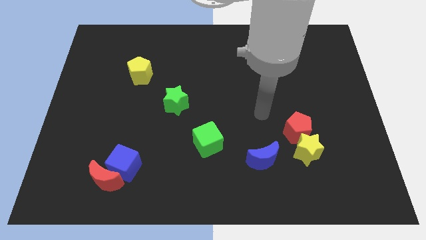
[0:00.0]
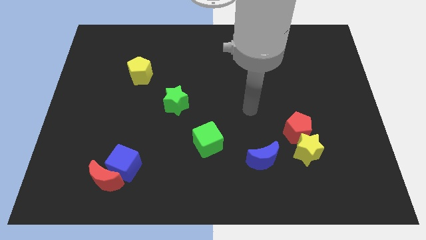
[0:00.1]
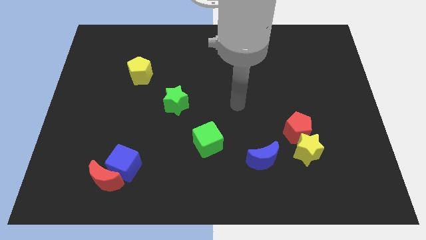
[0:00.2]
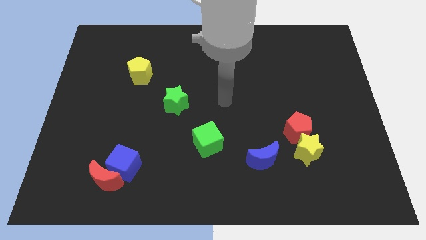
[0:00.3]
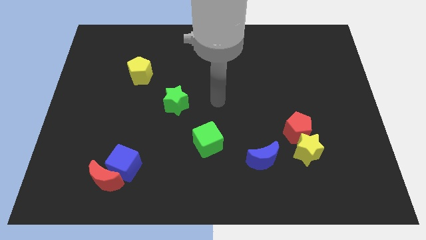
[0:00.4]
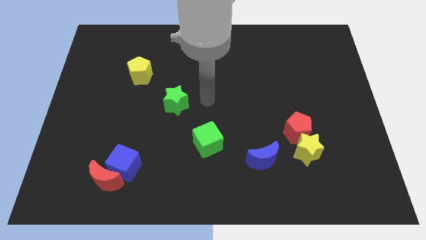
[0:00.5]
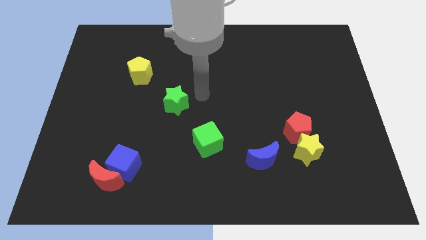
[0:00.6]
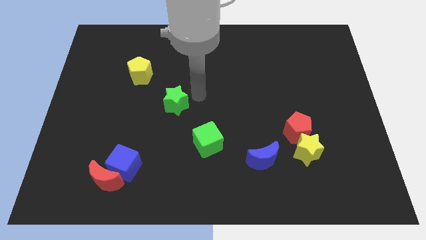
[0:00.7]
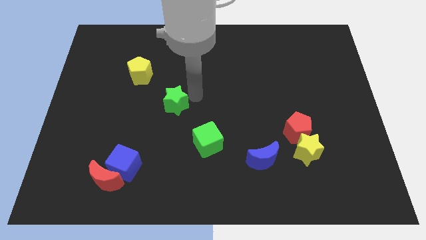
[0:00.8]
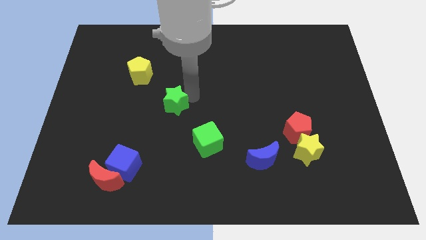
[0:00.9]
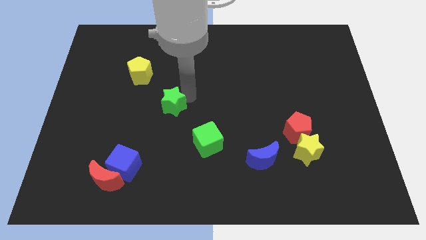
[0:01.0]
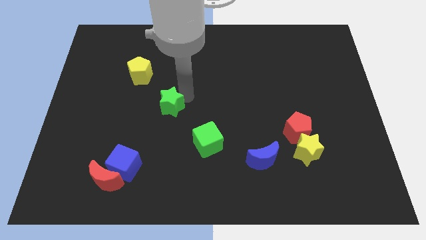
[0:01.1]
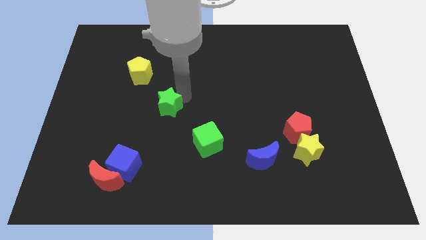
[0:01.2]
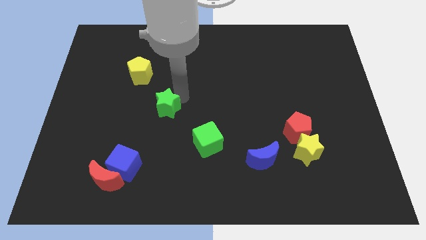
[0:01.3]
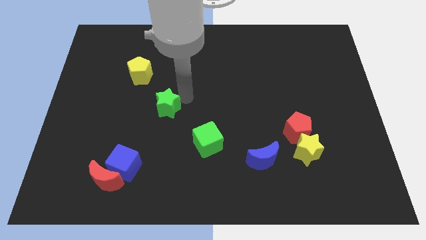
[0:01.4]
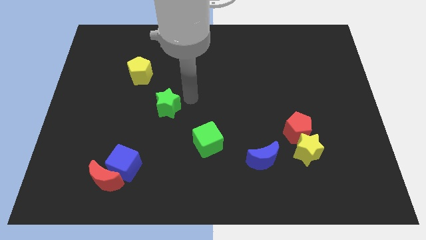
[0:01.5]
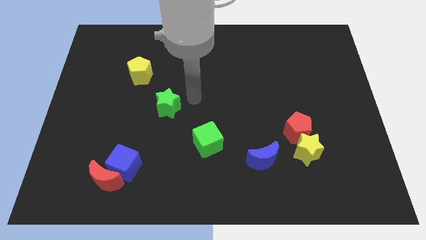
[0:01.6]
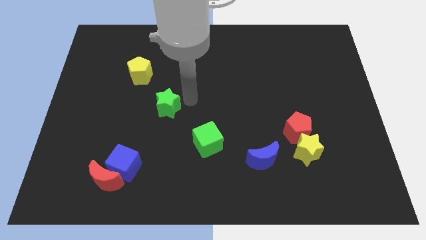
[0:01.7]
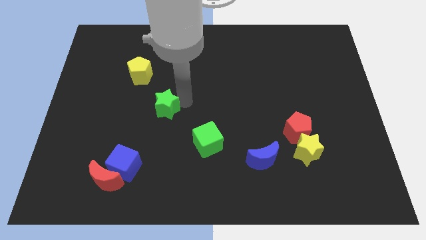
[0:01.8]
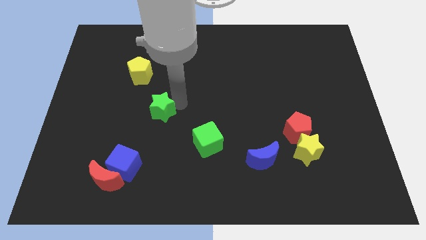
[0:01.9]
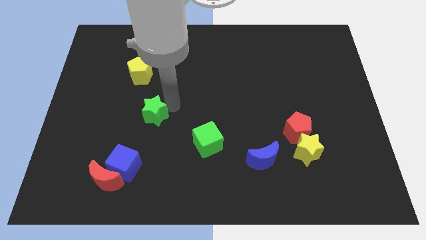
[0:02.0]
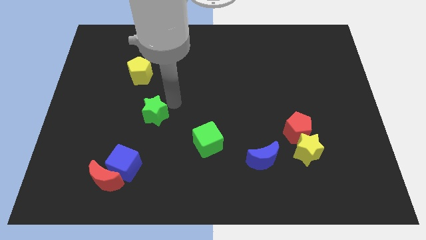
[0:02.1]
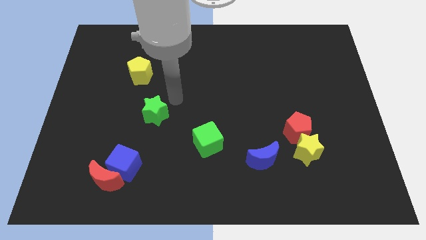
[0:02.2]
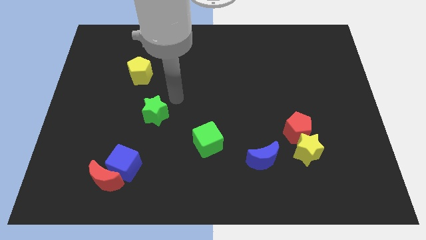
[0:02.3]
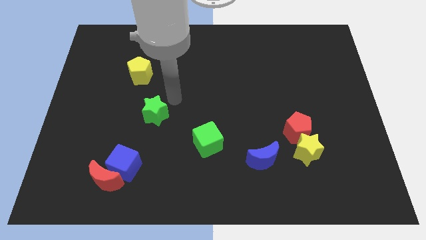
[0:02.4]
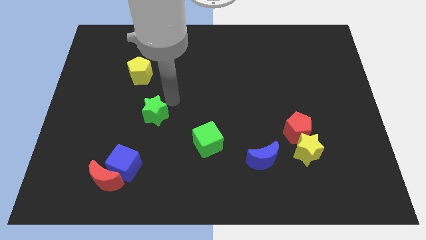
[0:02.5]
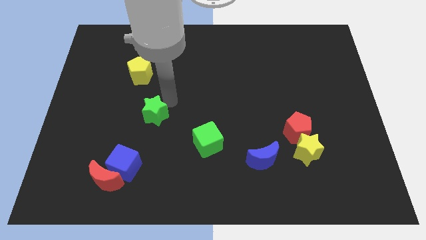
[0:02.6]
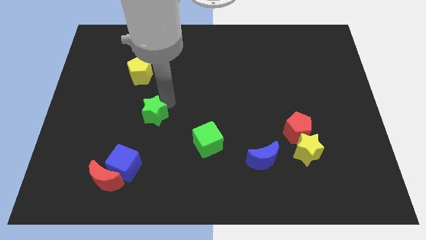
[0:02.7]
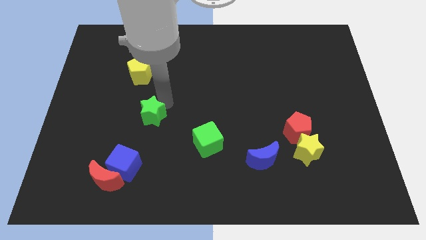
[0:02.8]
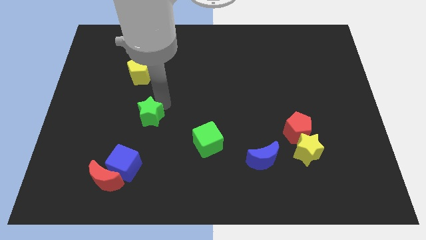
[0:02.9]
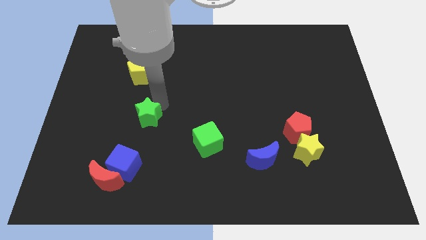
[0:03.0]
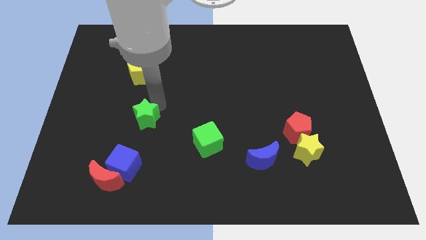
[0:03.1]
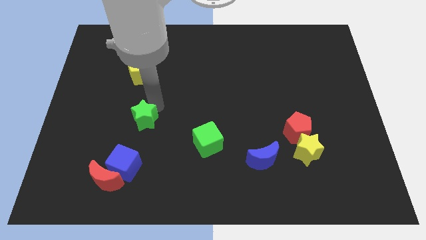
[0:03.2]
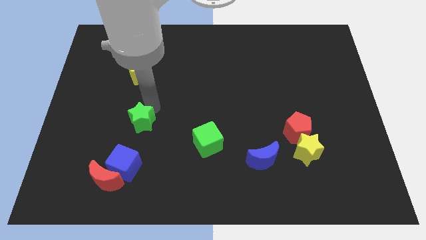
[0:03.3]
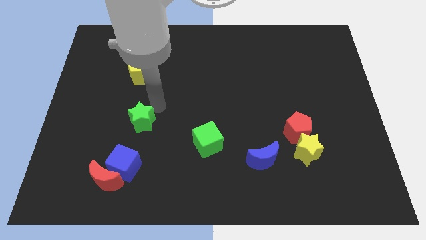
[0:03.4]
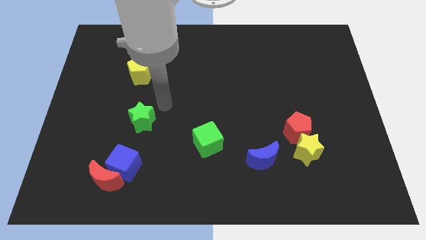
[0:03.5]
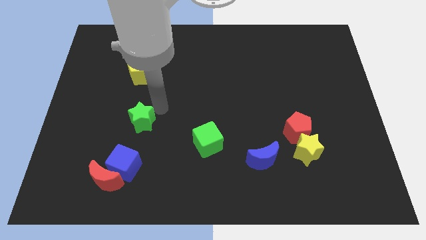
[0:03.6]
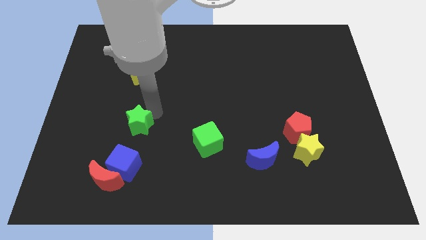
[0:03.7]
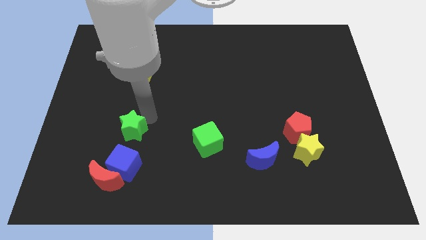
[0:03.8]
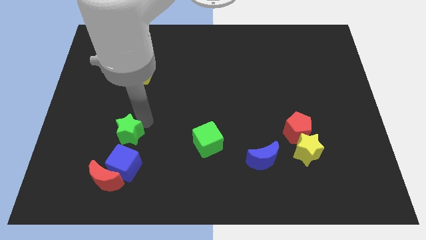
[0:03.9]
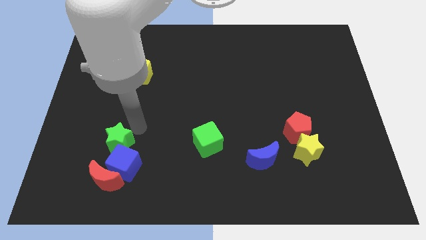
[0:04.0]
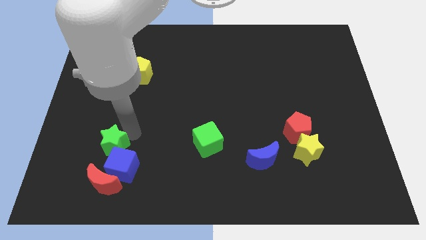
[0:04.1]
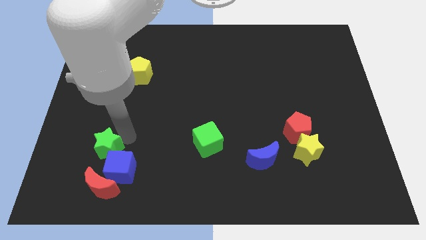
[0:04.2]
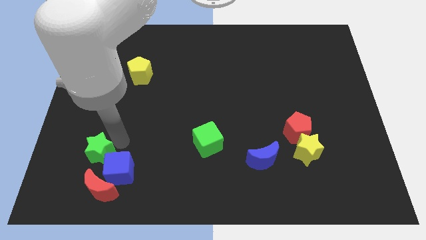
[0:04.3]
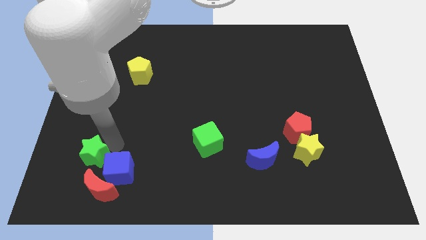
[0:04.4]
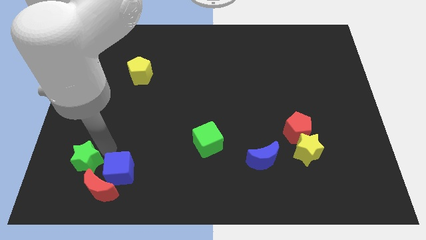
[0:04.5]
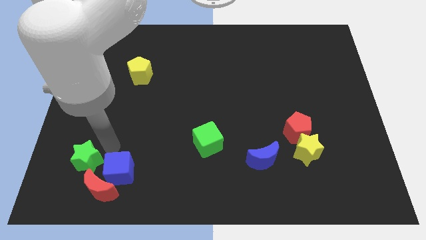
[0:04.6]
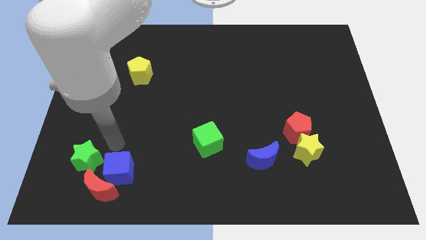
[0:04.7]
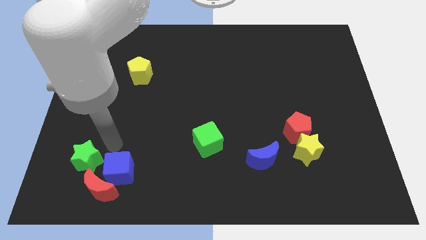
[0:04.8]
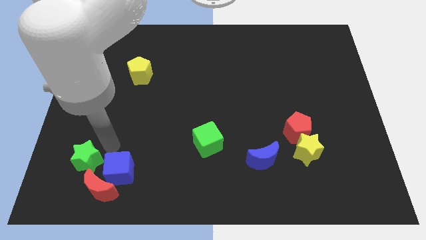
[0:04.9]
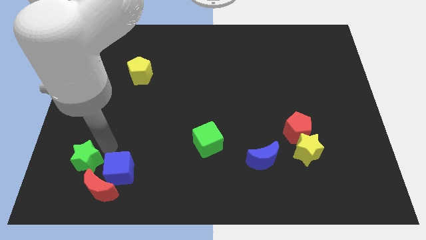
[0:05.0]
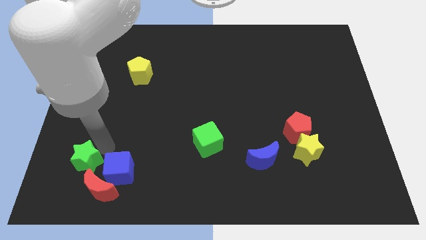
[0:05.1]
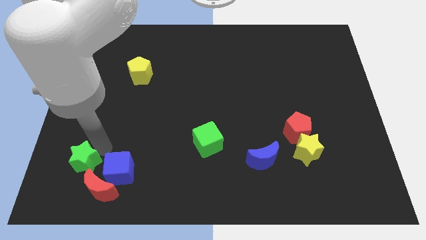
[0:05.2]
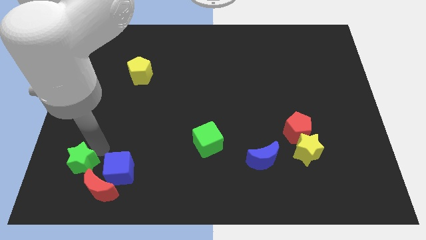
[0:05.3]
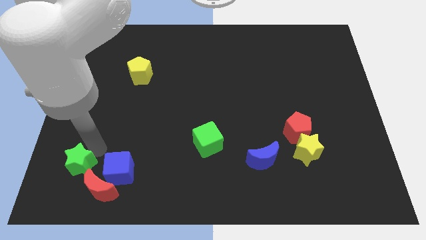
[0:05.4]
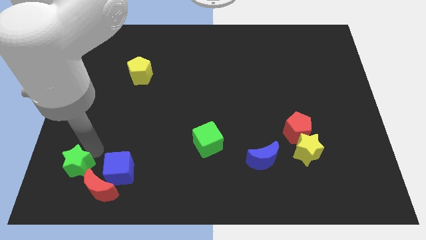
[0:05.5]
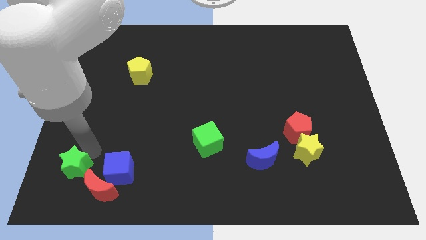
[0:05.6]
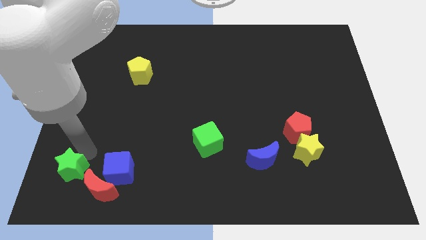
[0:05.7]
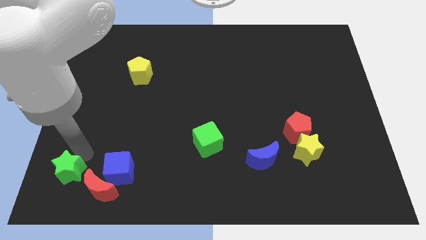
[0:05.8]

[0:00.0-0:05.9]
push the green star to the bottom left corner
